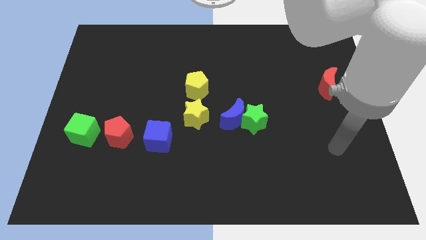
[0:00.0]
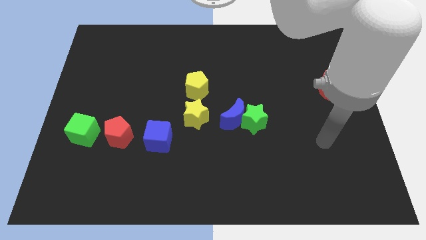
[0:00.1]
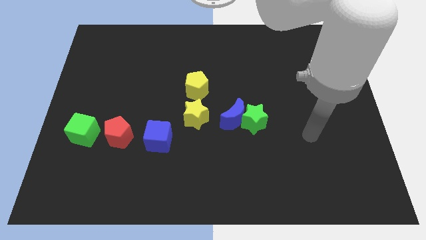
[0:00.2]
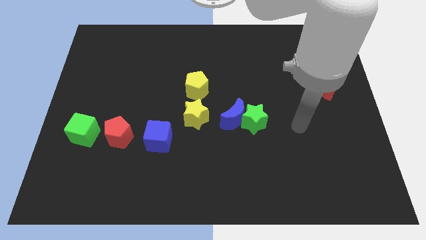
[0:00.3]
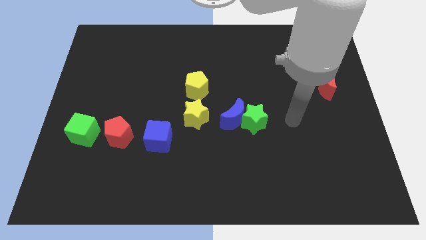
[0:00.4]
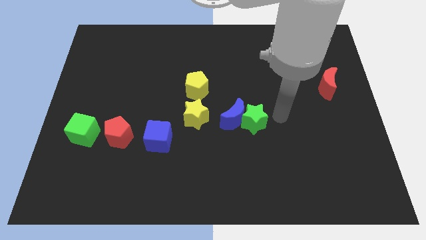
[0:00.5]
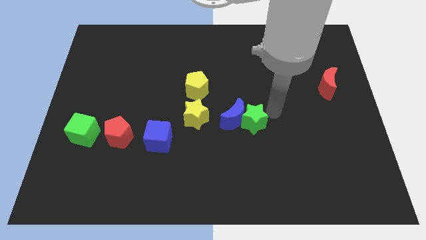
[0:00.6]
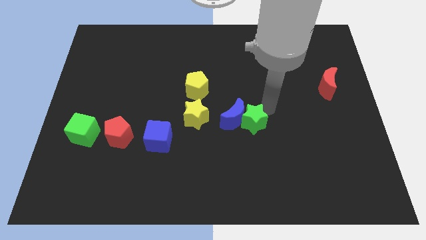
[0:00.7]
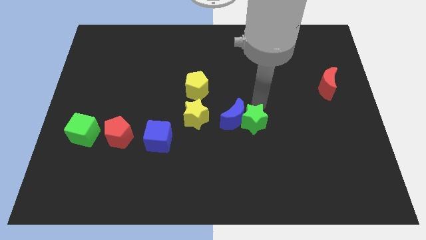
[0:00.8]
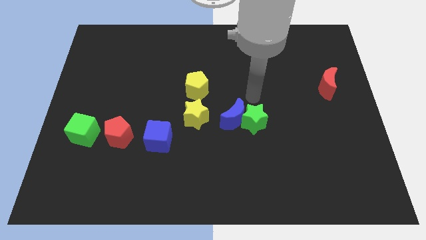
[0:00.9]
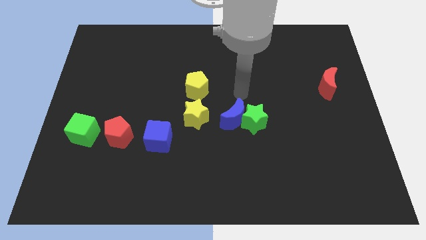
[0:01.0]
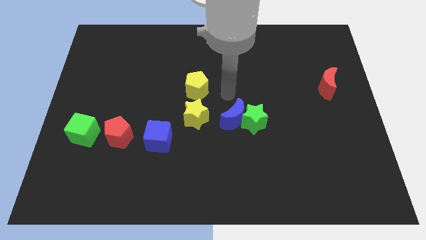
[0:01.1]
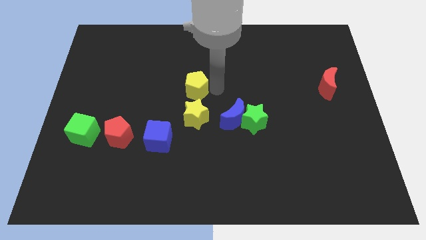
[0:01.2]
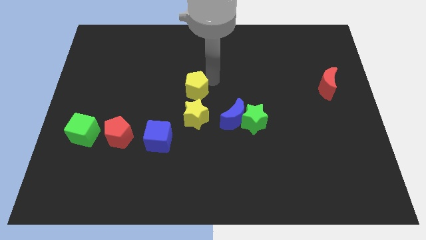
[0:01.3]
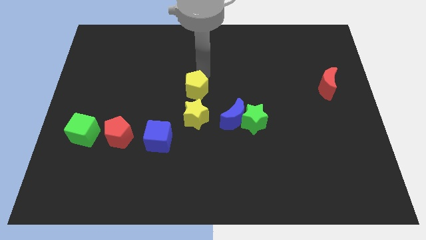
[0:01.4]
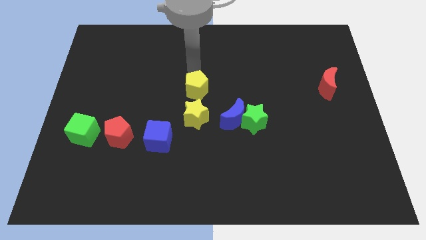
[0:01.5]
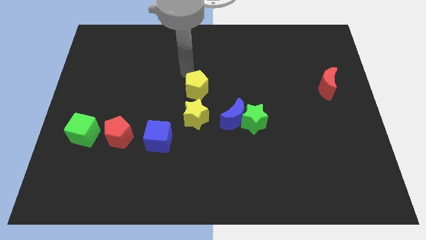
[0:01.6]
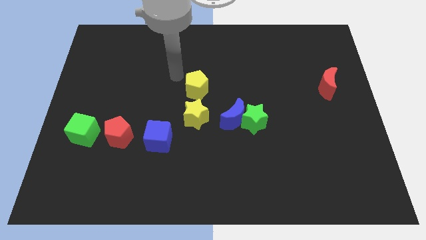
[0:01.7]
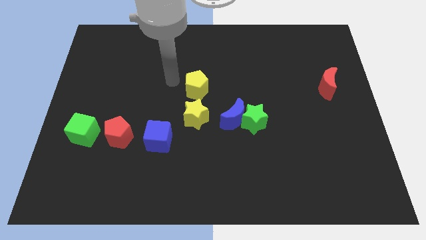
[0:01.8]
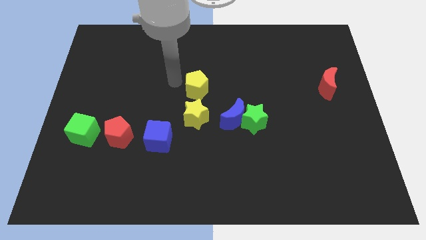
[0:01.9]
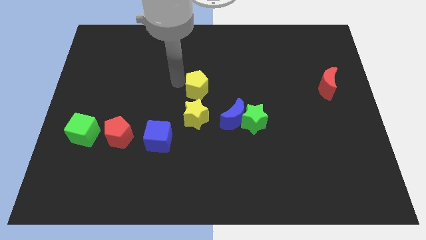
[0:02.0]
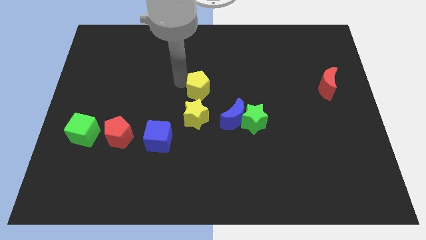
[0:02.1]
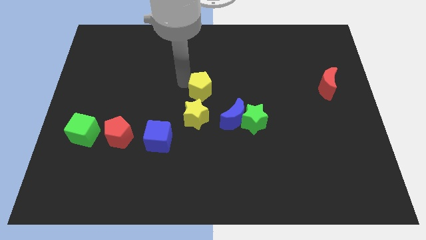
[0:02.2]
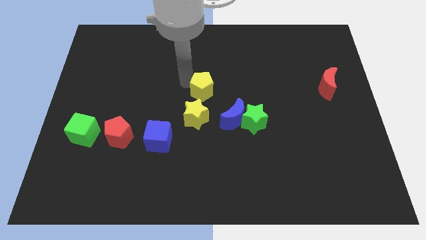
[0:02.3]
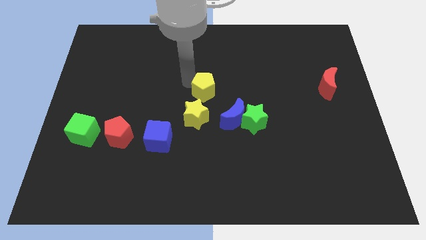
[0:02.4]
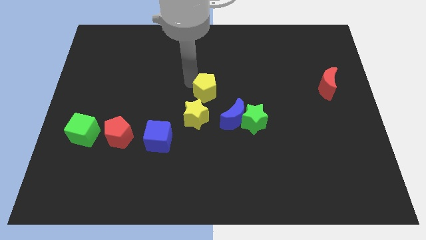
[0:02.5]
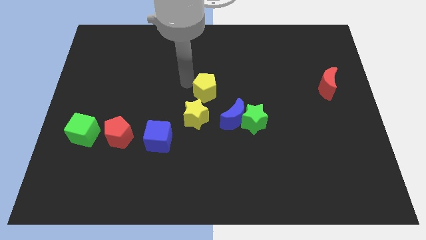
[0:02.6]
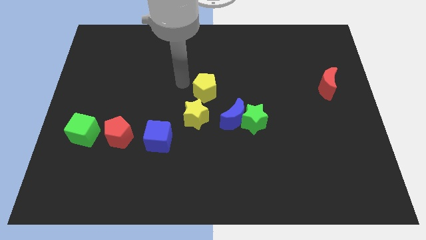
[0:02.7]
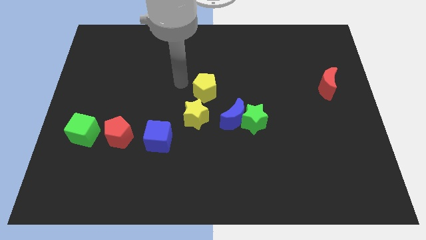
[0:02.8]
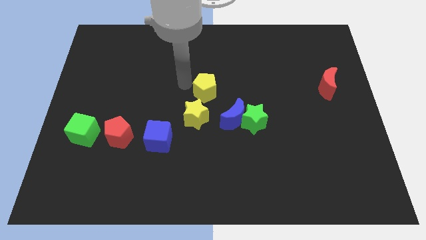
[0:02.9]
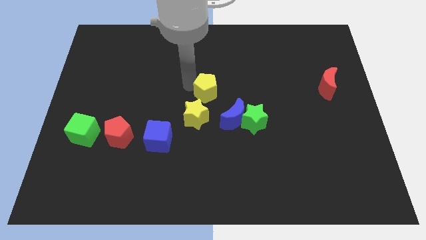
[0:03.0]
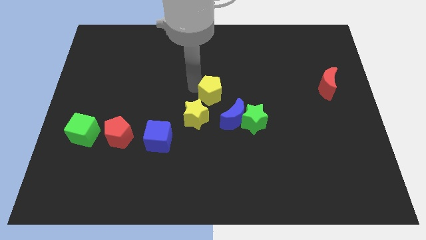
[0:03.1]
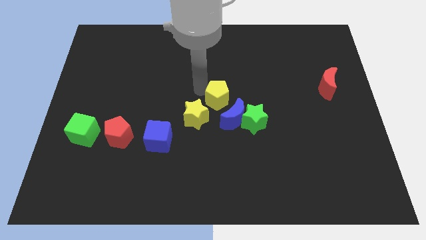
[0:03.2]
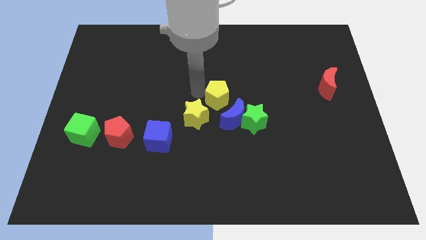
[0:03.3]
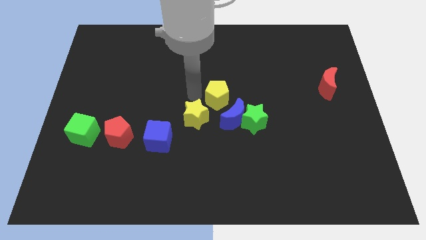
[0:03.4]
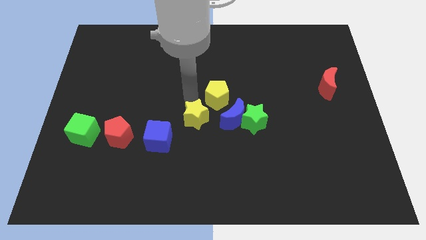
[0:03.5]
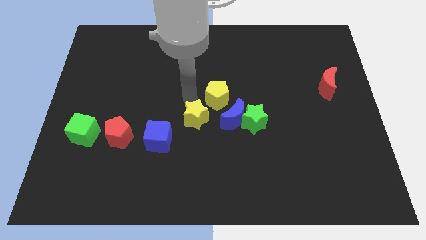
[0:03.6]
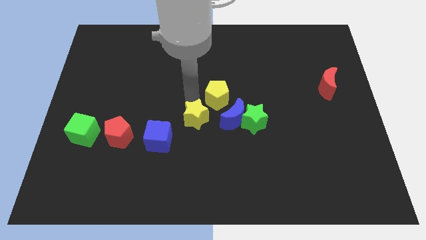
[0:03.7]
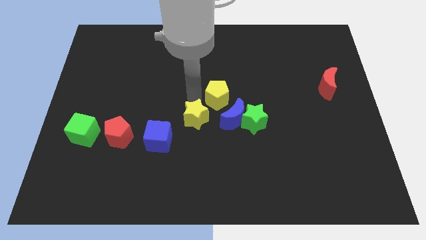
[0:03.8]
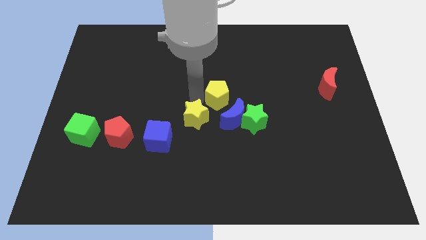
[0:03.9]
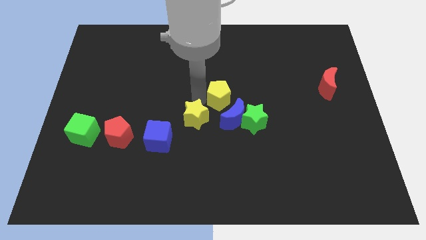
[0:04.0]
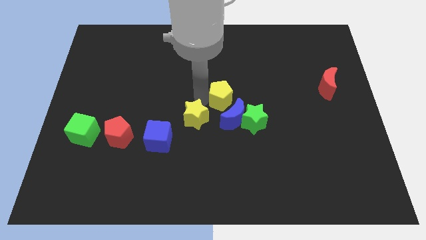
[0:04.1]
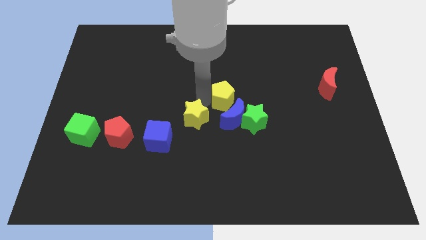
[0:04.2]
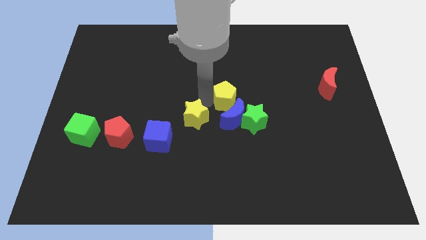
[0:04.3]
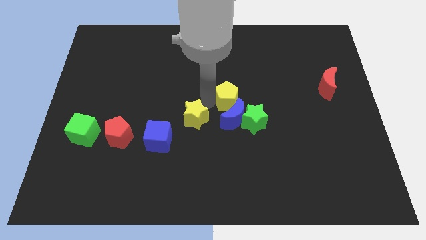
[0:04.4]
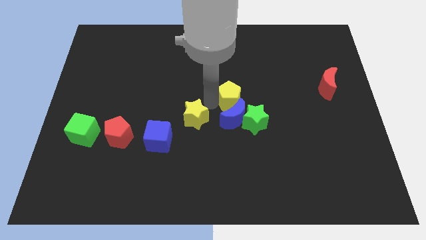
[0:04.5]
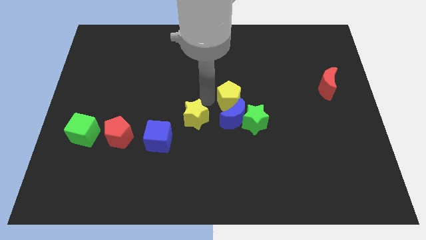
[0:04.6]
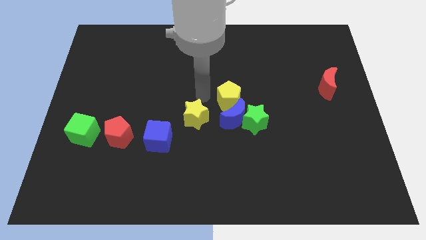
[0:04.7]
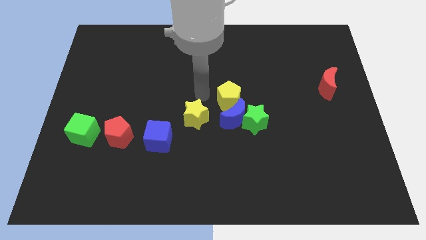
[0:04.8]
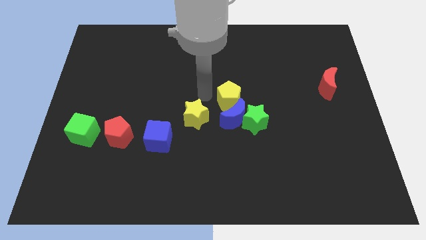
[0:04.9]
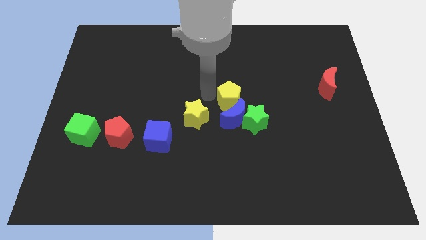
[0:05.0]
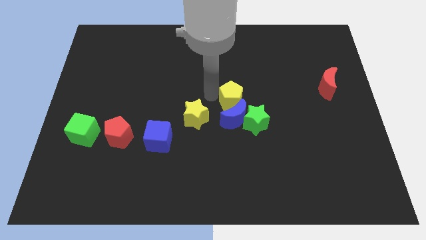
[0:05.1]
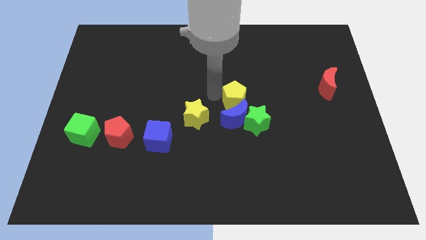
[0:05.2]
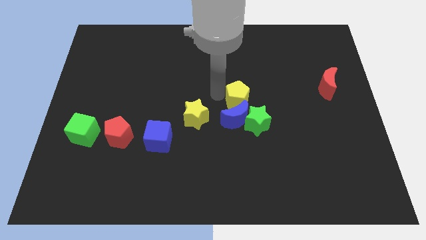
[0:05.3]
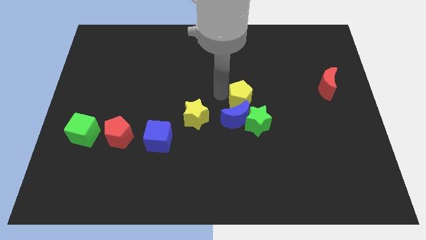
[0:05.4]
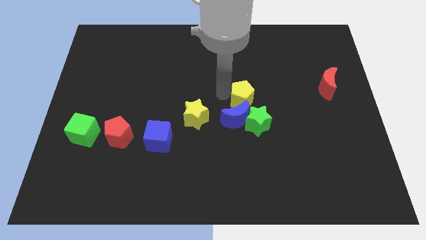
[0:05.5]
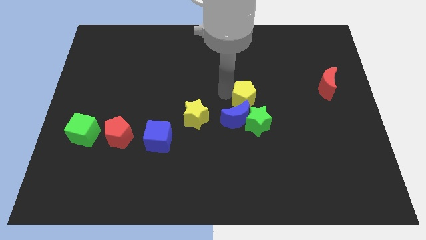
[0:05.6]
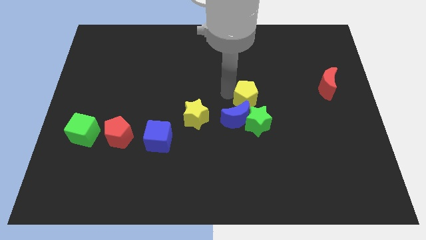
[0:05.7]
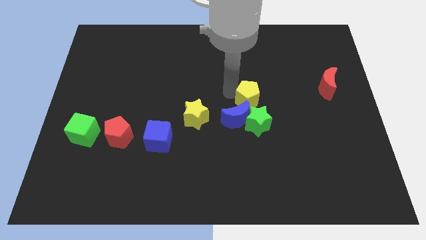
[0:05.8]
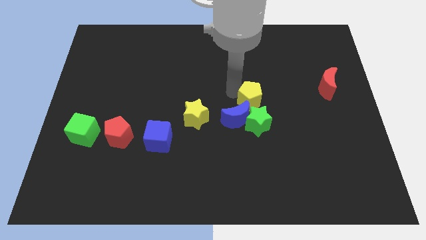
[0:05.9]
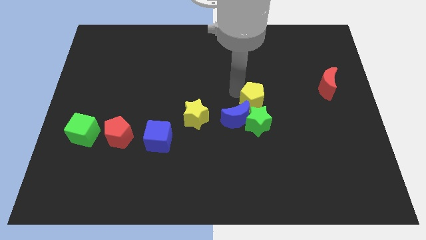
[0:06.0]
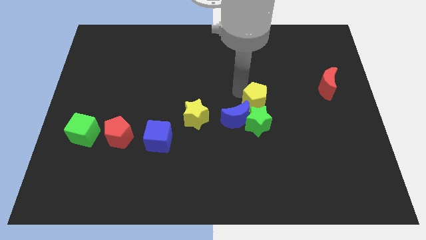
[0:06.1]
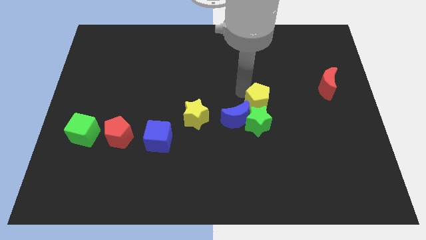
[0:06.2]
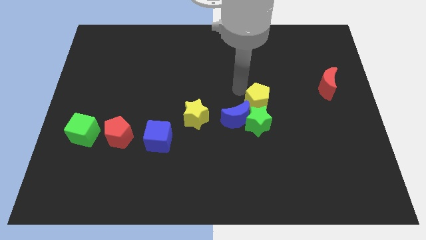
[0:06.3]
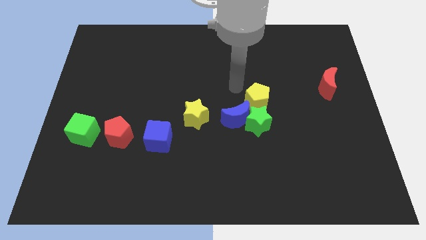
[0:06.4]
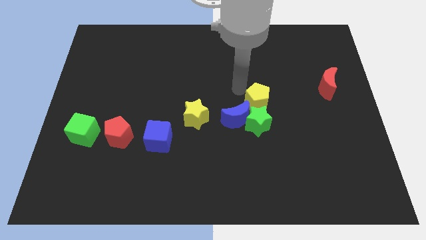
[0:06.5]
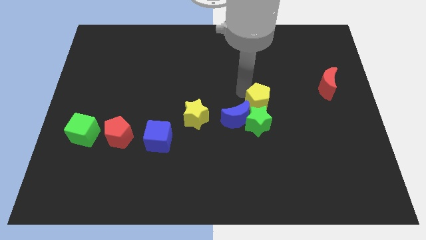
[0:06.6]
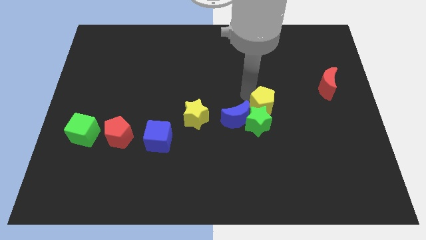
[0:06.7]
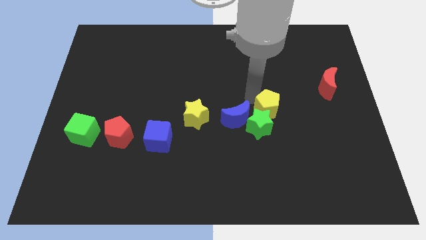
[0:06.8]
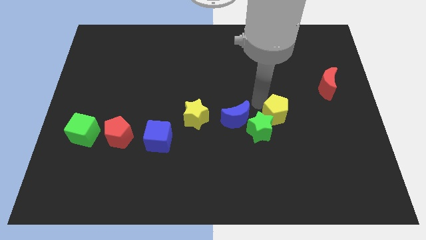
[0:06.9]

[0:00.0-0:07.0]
push the yellow pentagon to the right of the green star
